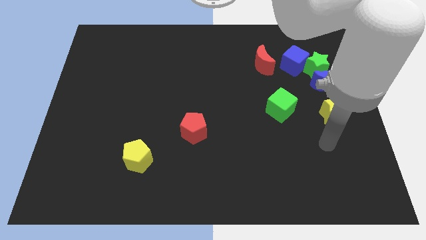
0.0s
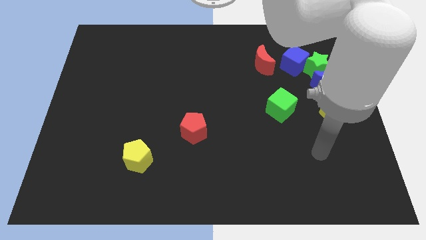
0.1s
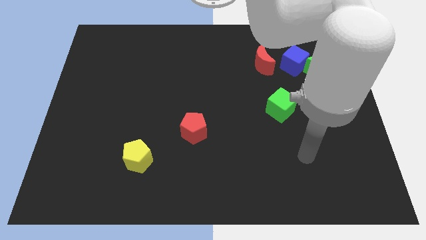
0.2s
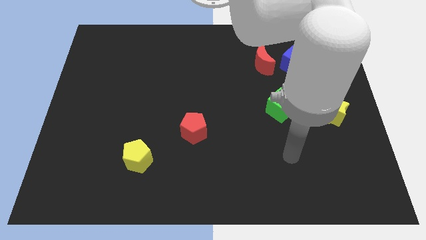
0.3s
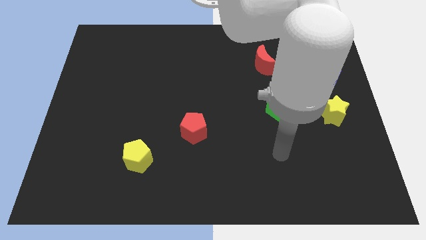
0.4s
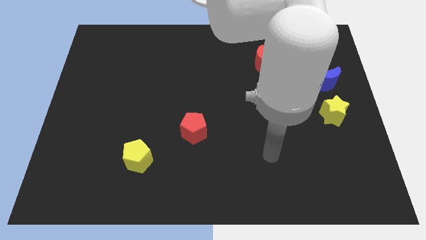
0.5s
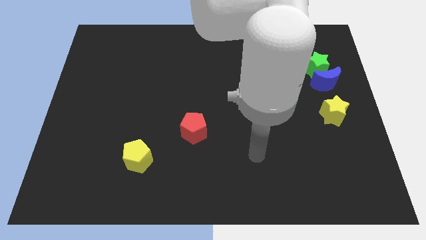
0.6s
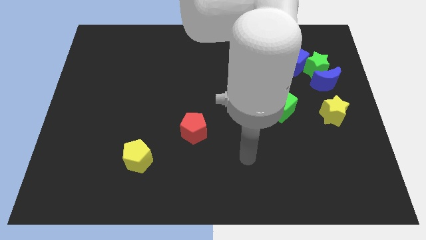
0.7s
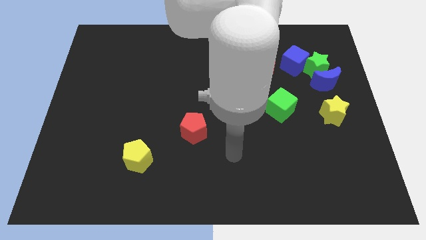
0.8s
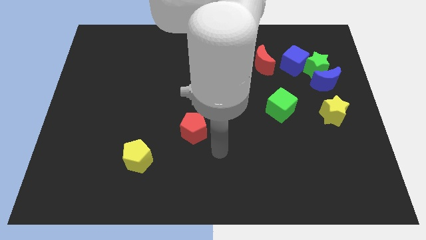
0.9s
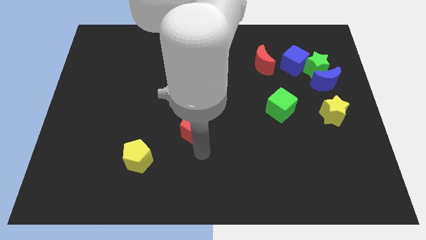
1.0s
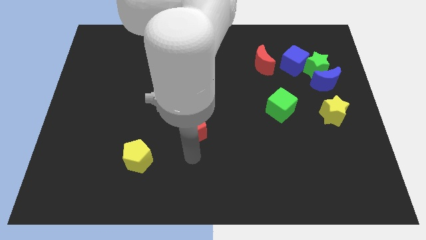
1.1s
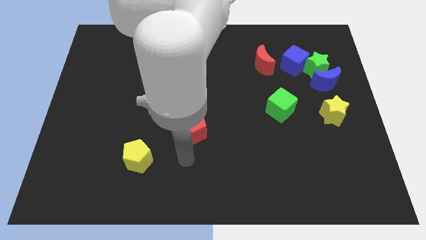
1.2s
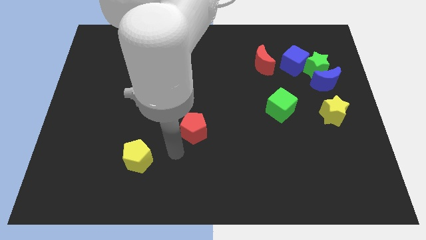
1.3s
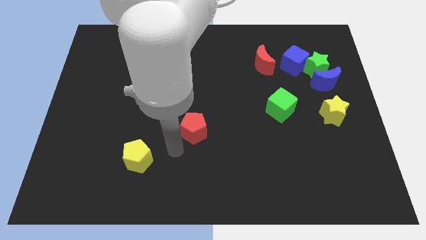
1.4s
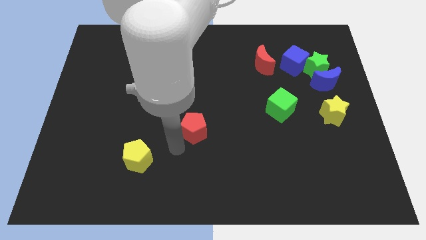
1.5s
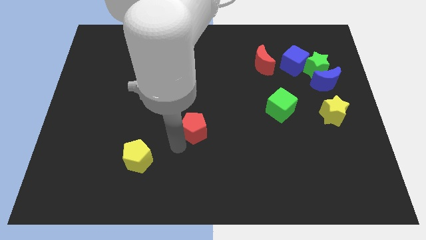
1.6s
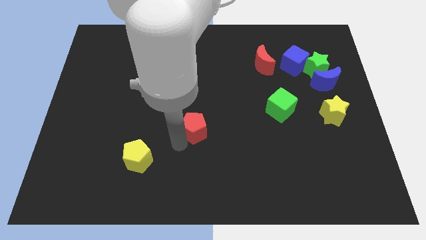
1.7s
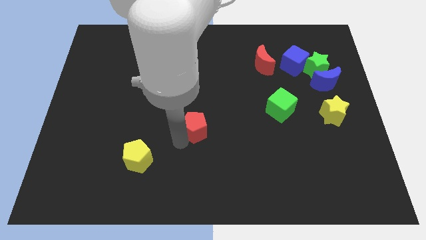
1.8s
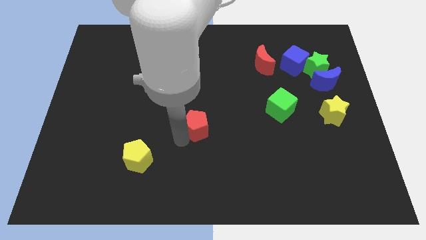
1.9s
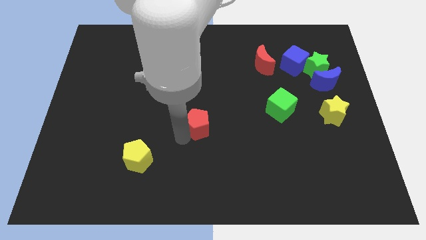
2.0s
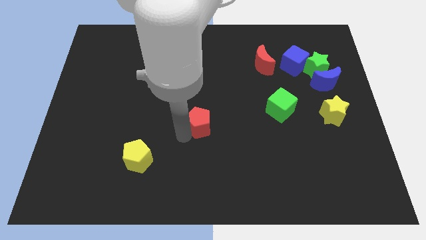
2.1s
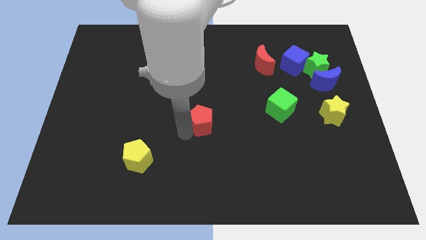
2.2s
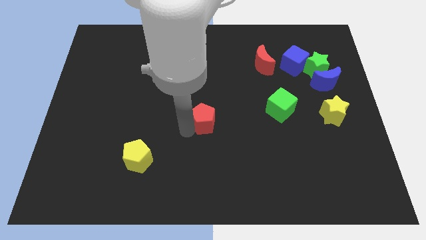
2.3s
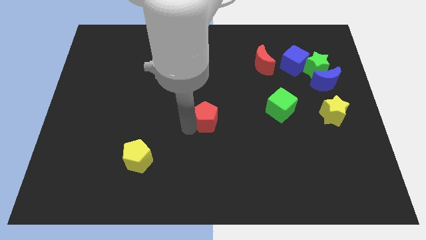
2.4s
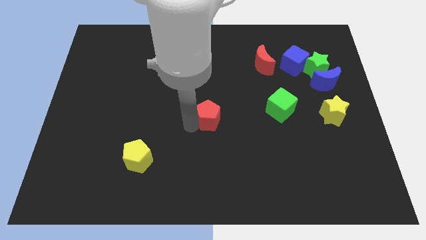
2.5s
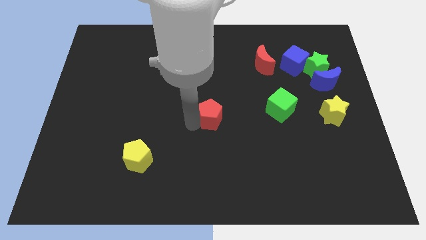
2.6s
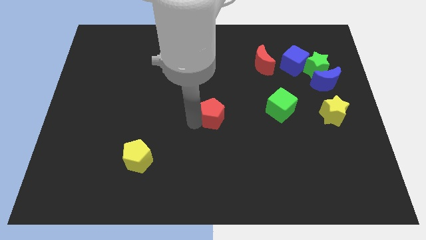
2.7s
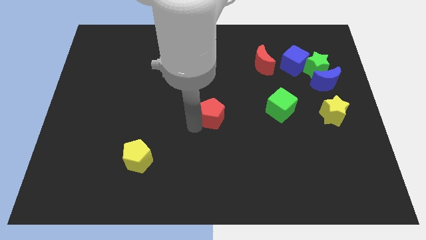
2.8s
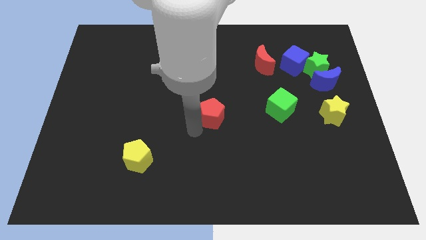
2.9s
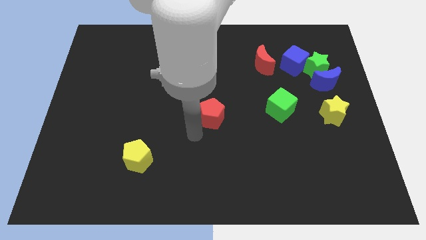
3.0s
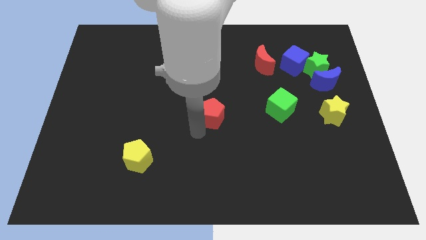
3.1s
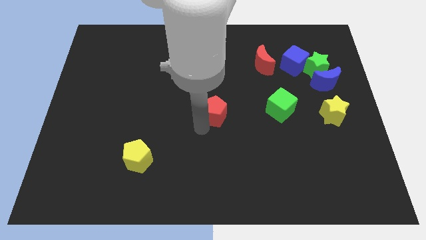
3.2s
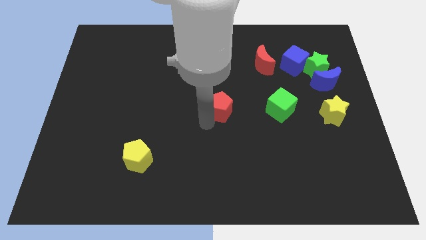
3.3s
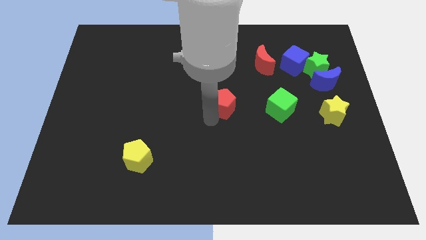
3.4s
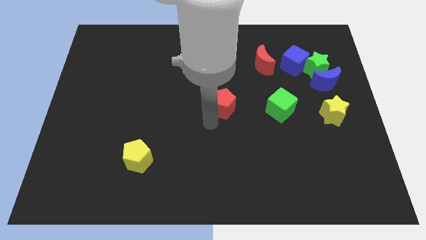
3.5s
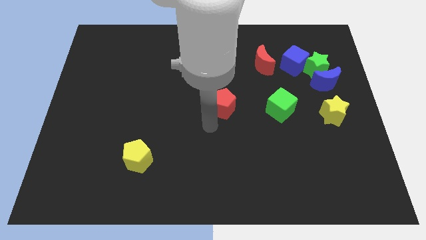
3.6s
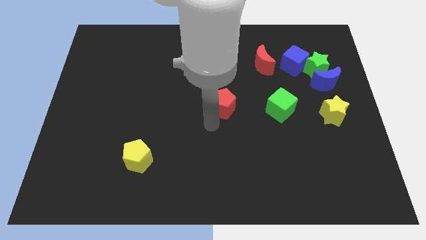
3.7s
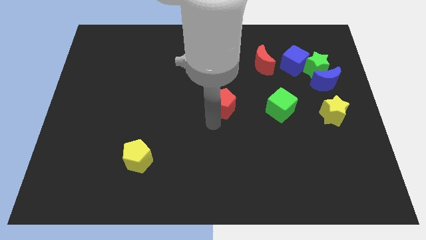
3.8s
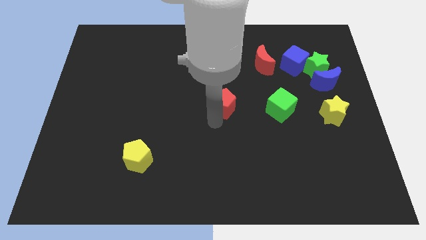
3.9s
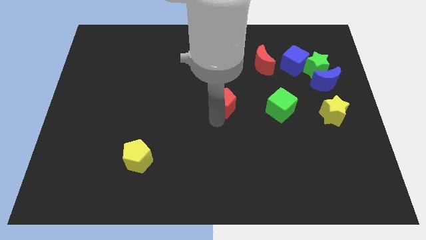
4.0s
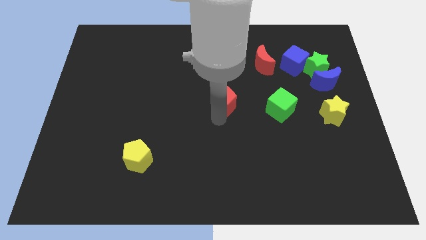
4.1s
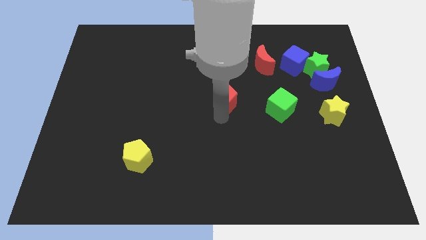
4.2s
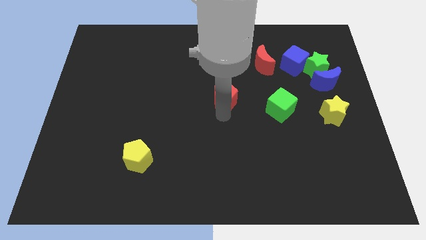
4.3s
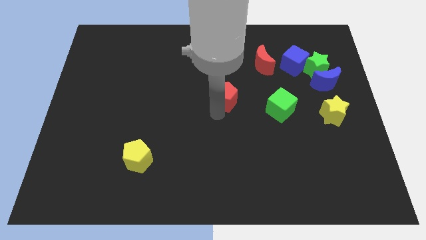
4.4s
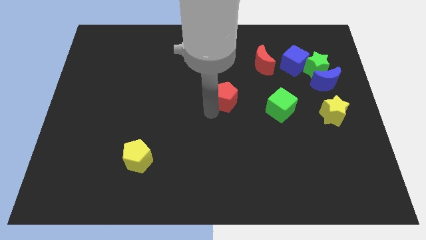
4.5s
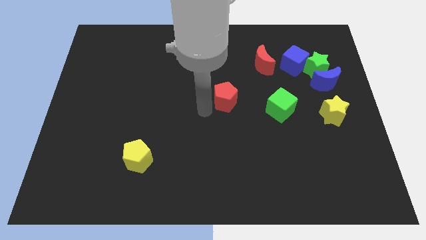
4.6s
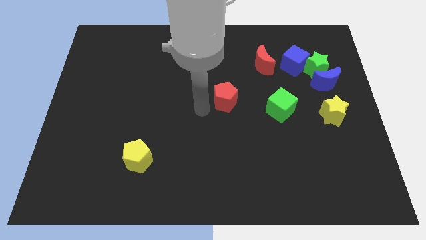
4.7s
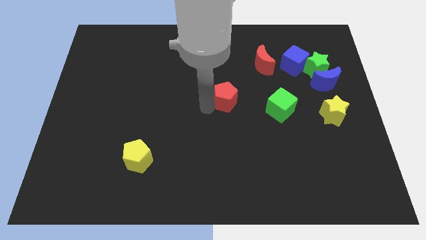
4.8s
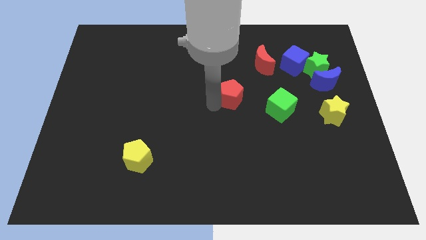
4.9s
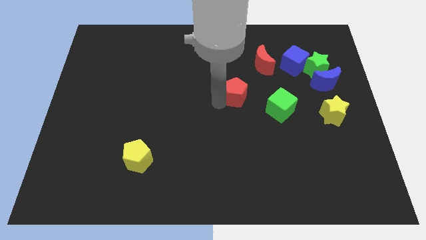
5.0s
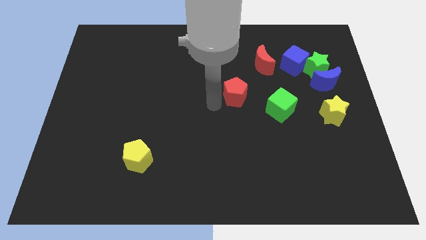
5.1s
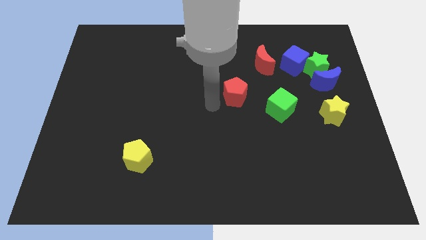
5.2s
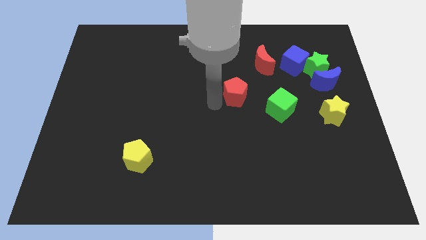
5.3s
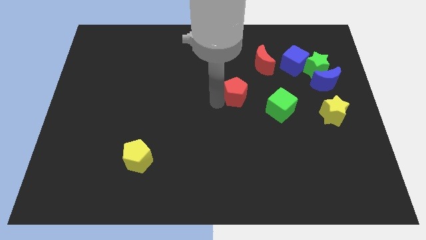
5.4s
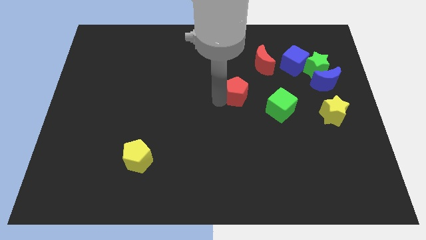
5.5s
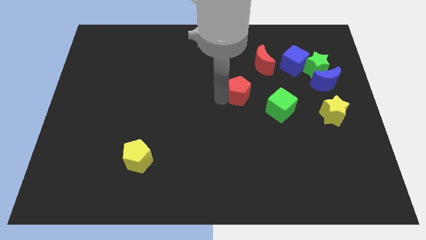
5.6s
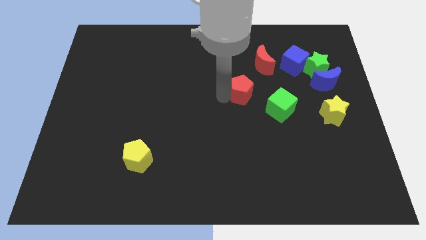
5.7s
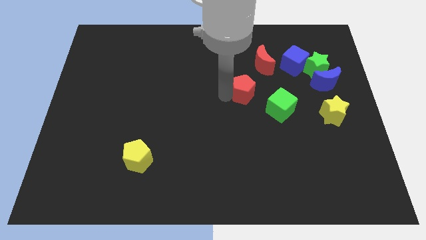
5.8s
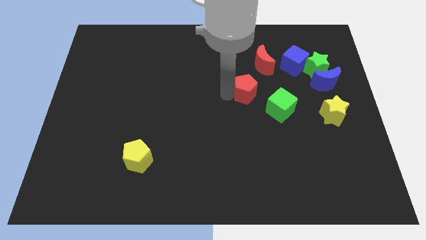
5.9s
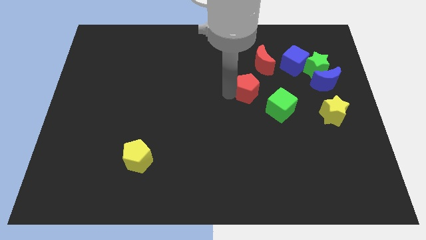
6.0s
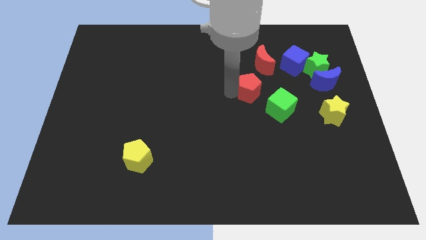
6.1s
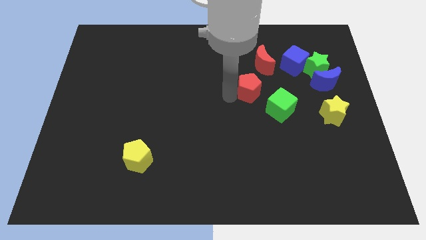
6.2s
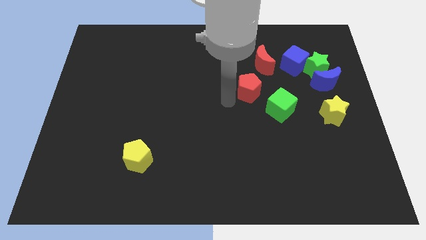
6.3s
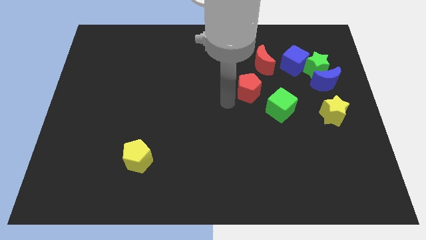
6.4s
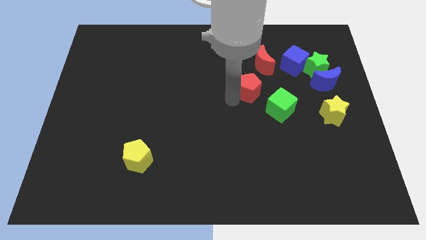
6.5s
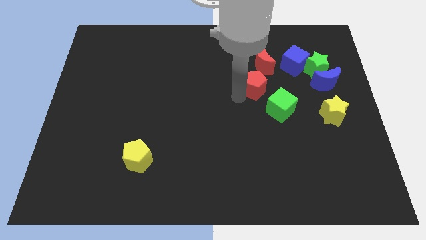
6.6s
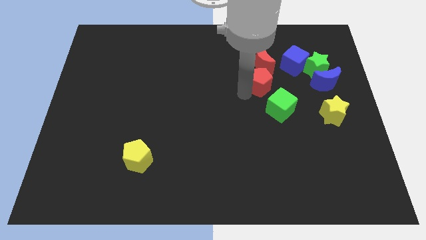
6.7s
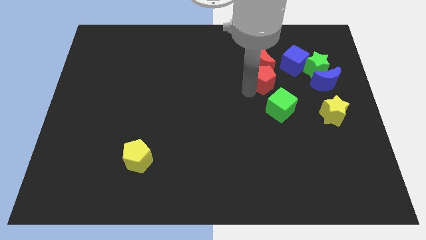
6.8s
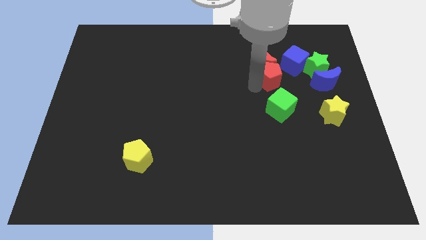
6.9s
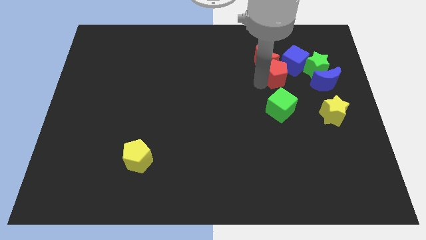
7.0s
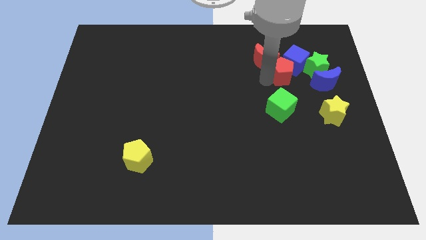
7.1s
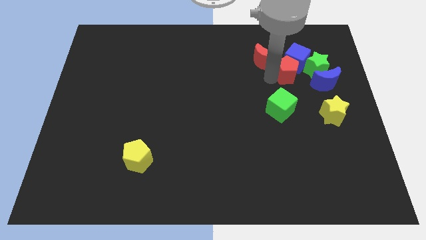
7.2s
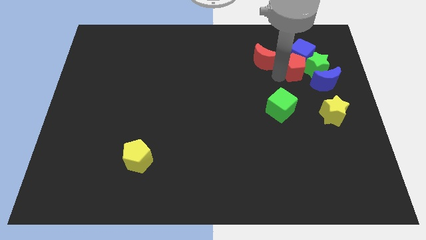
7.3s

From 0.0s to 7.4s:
push the red pentagon next to the green star
